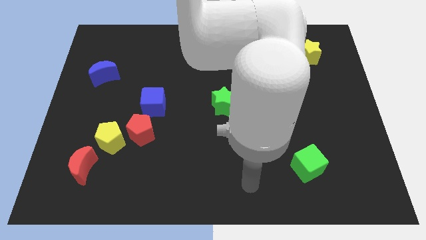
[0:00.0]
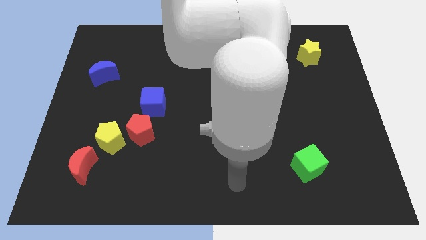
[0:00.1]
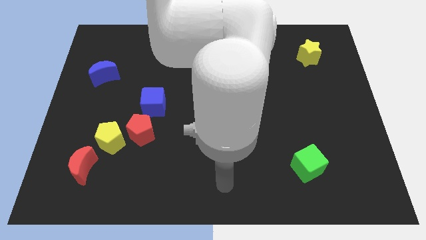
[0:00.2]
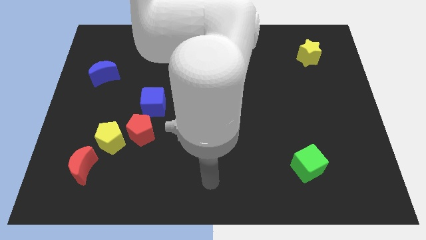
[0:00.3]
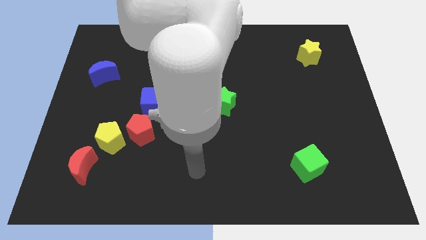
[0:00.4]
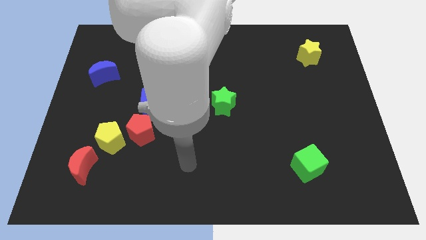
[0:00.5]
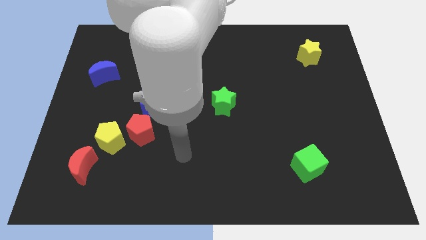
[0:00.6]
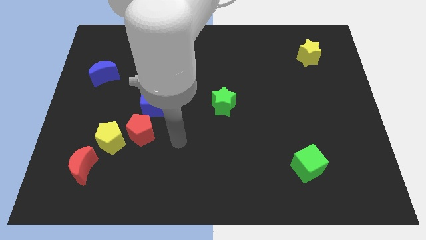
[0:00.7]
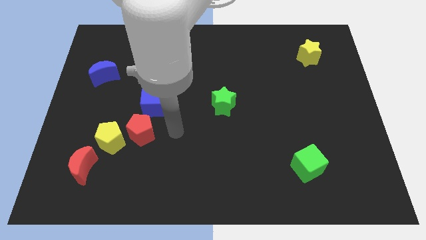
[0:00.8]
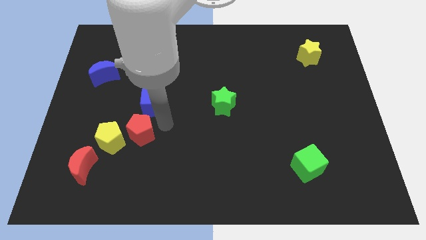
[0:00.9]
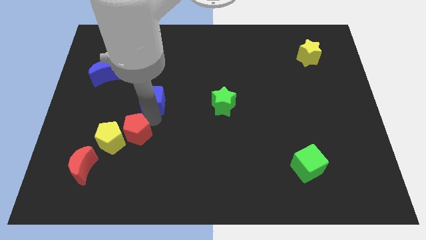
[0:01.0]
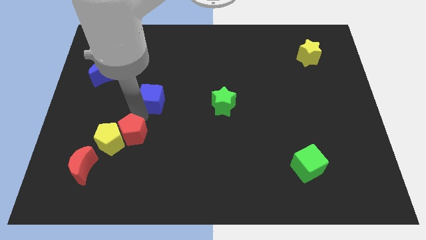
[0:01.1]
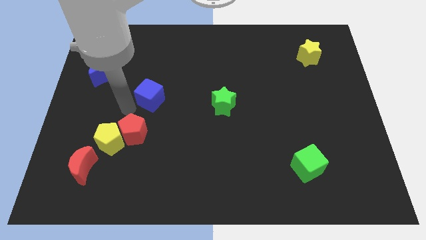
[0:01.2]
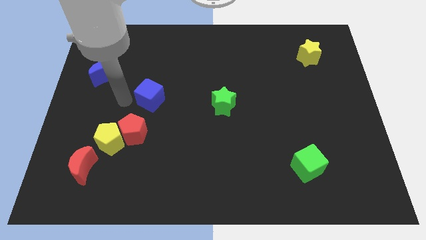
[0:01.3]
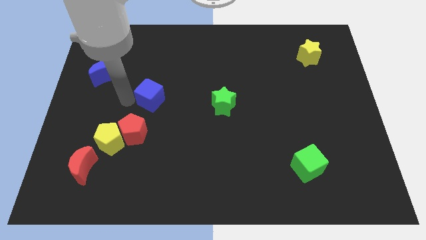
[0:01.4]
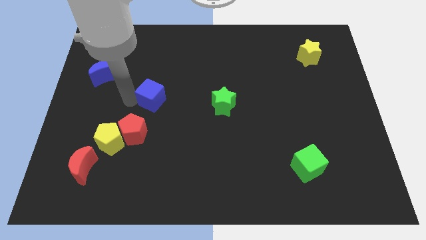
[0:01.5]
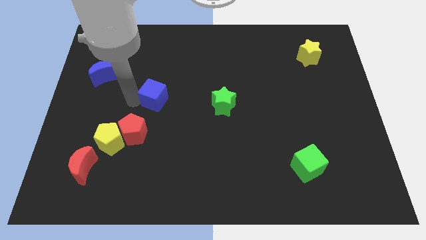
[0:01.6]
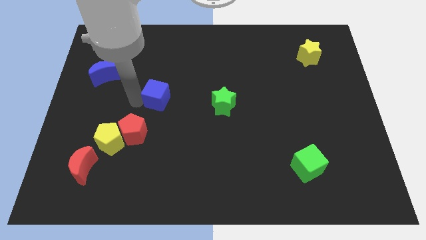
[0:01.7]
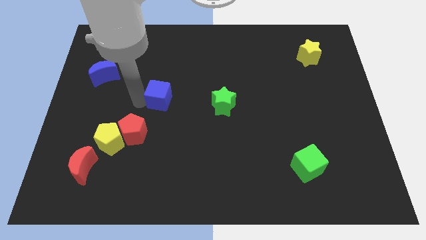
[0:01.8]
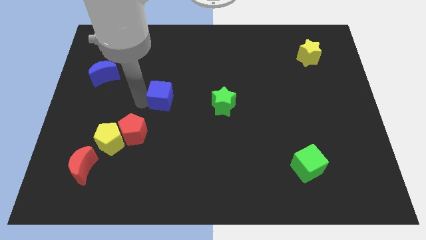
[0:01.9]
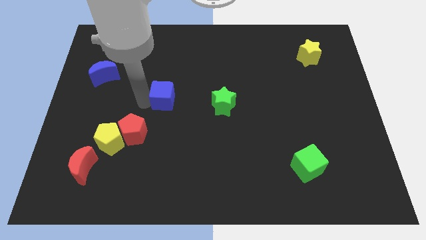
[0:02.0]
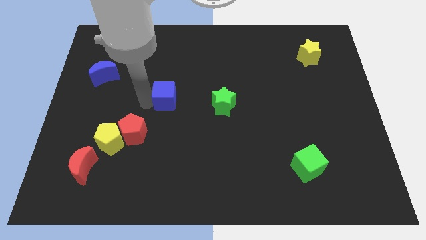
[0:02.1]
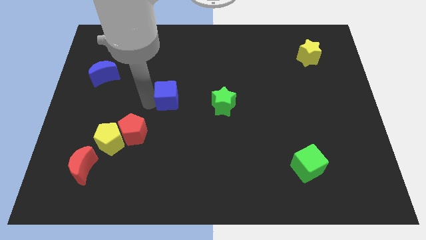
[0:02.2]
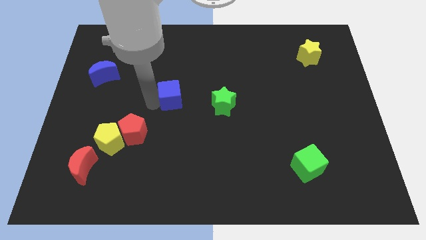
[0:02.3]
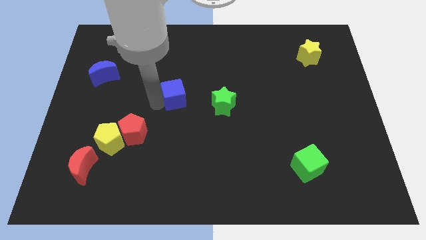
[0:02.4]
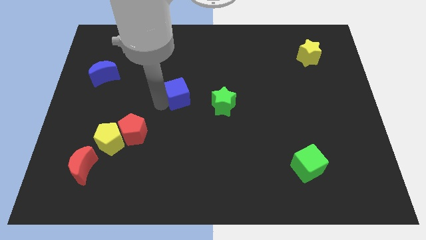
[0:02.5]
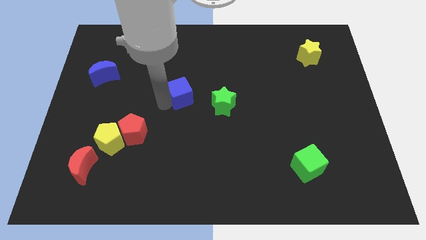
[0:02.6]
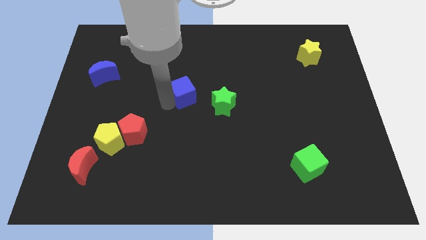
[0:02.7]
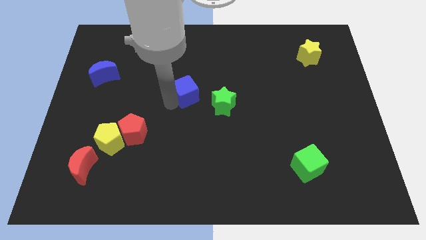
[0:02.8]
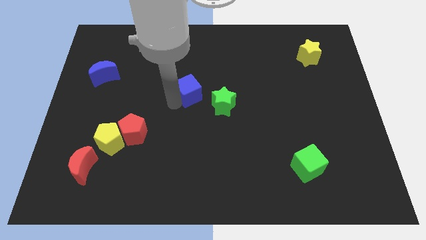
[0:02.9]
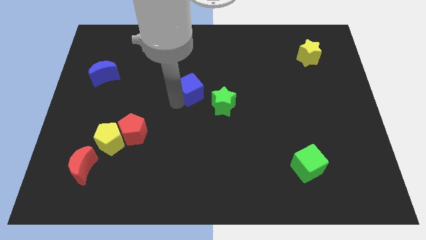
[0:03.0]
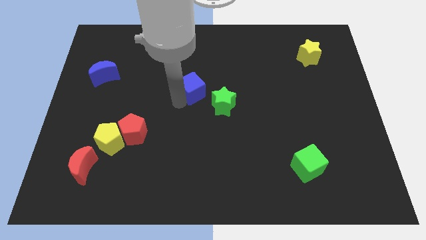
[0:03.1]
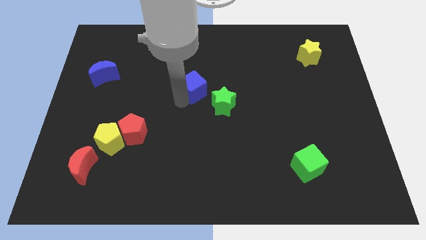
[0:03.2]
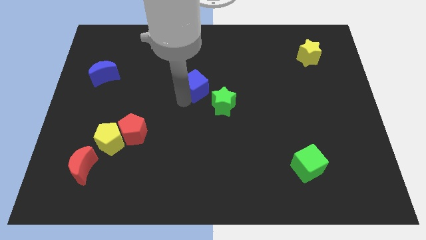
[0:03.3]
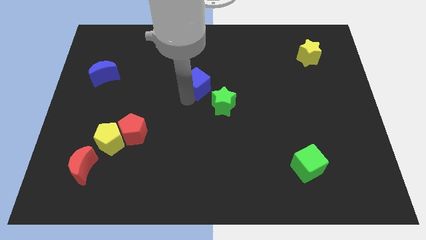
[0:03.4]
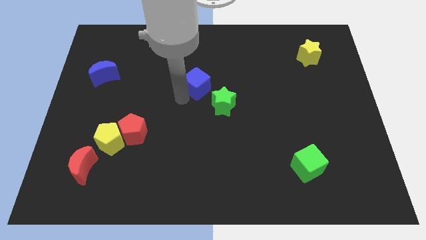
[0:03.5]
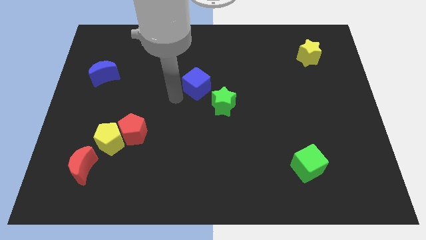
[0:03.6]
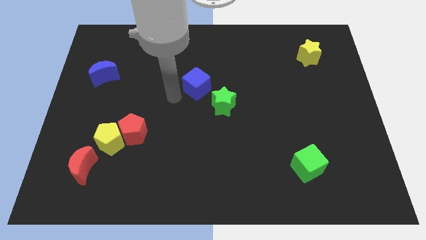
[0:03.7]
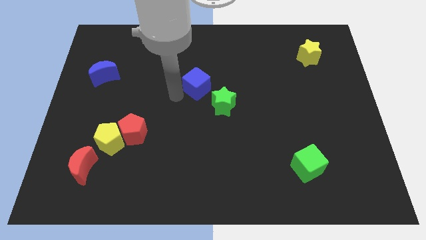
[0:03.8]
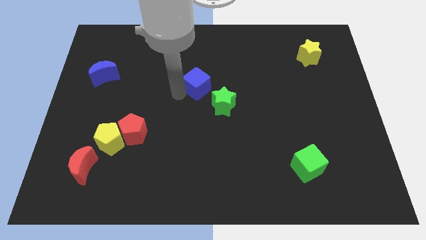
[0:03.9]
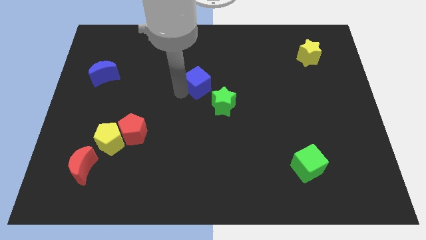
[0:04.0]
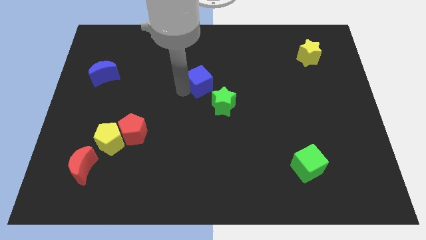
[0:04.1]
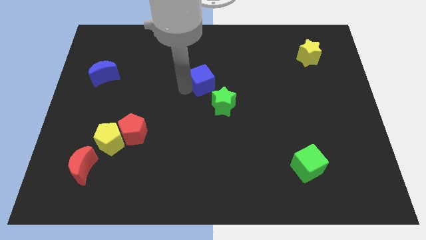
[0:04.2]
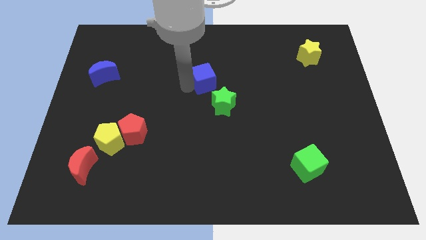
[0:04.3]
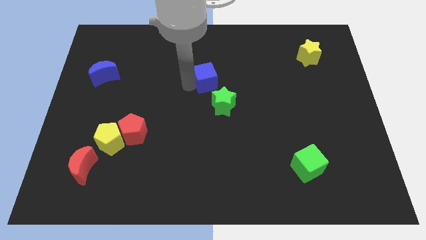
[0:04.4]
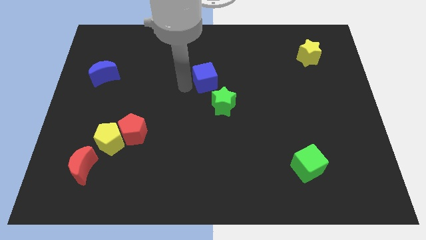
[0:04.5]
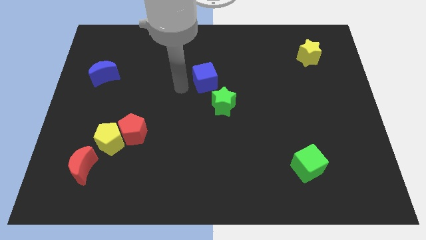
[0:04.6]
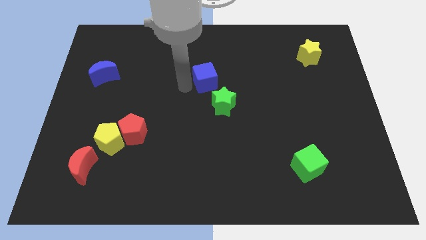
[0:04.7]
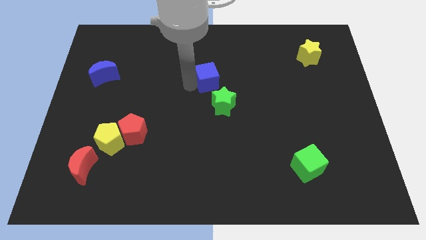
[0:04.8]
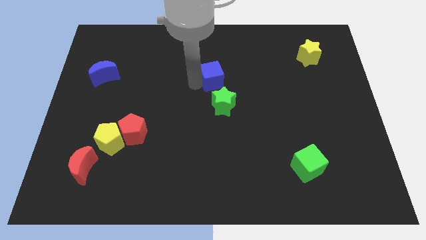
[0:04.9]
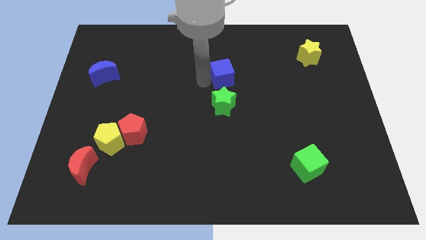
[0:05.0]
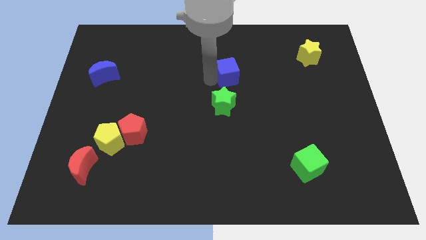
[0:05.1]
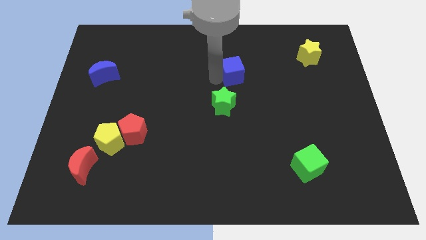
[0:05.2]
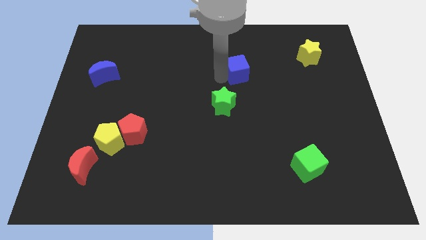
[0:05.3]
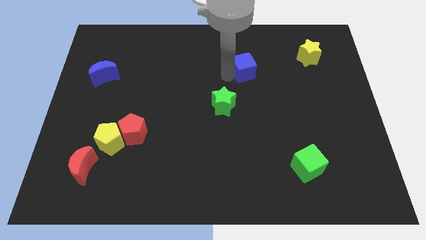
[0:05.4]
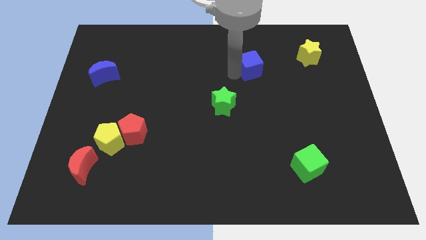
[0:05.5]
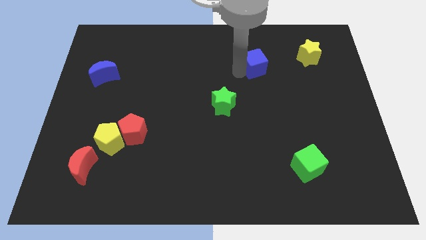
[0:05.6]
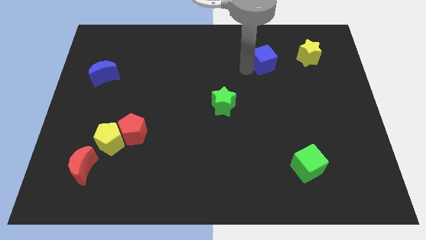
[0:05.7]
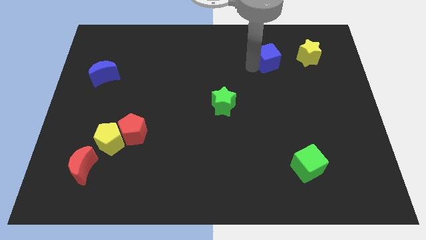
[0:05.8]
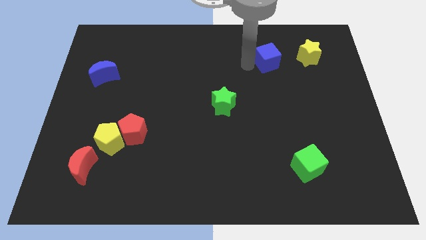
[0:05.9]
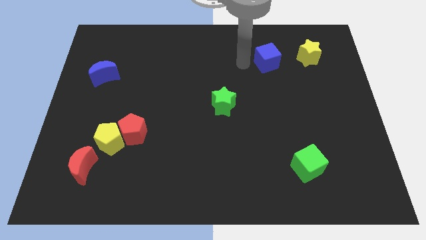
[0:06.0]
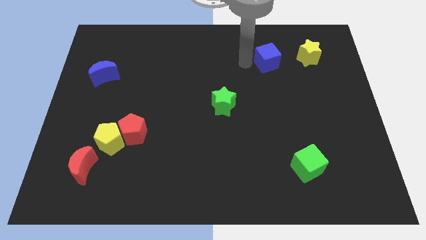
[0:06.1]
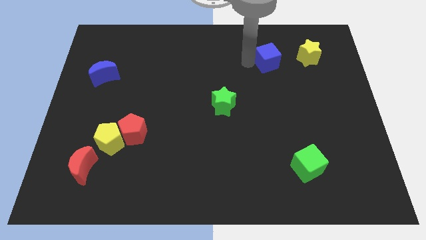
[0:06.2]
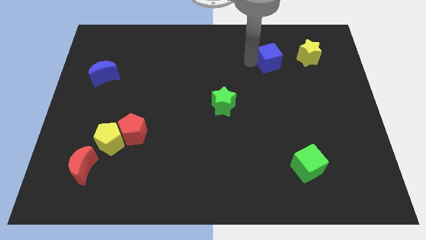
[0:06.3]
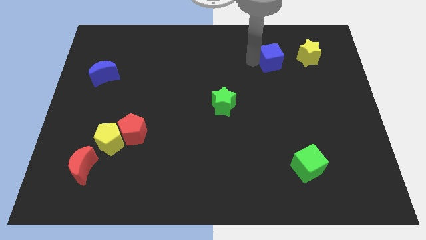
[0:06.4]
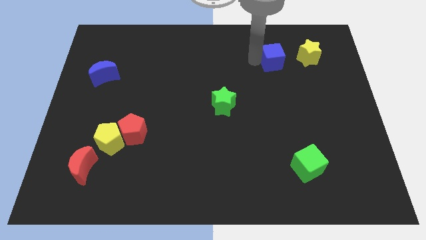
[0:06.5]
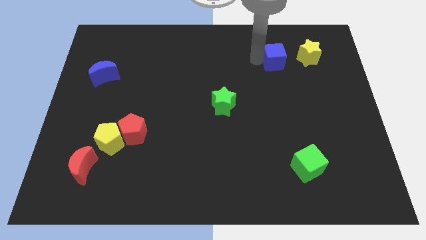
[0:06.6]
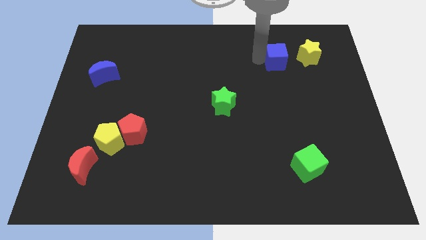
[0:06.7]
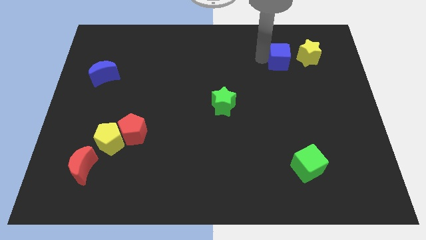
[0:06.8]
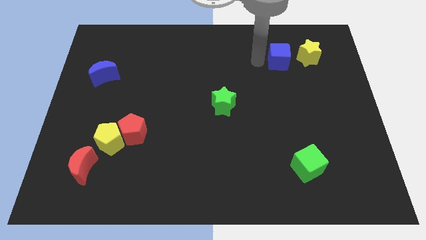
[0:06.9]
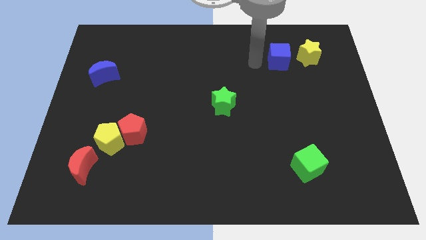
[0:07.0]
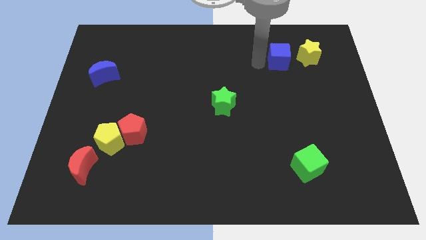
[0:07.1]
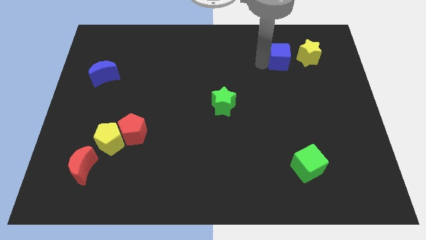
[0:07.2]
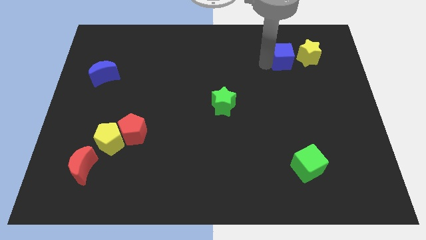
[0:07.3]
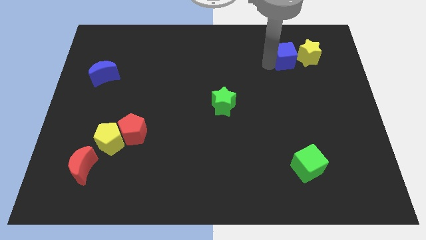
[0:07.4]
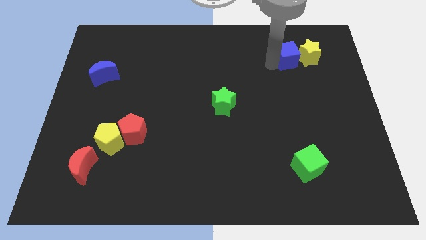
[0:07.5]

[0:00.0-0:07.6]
put the blue cube close to the yellow star
